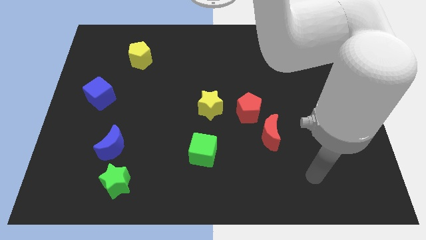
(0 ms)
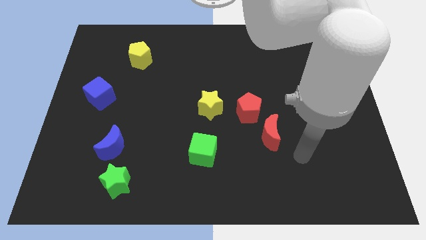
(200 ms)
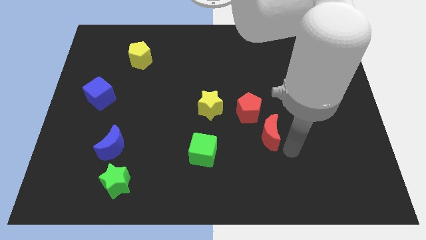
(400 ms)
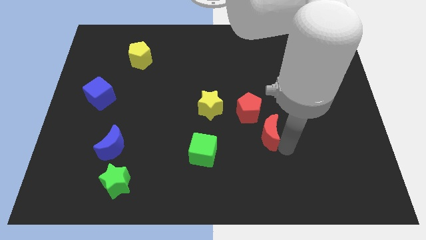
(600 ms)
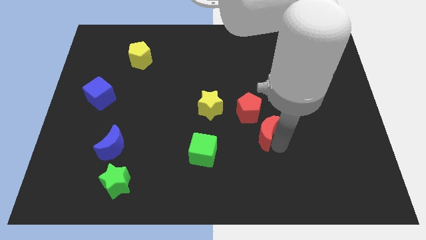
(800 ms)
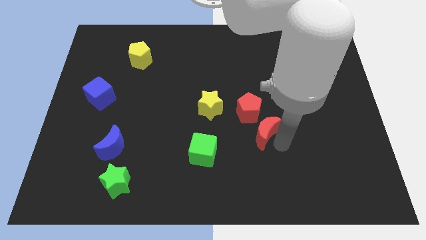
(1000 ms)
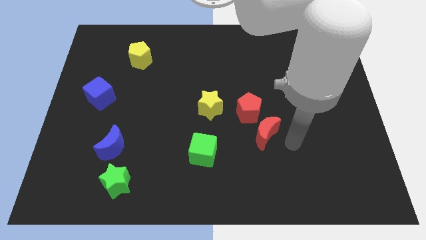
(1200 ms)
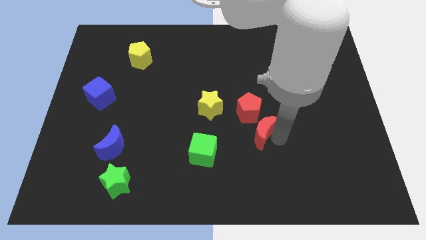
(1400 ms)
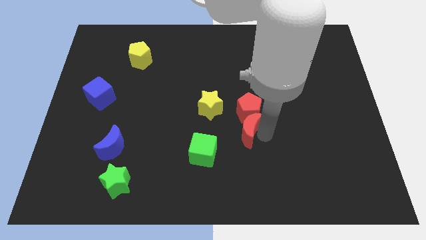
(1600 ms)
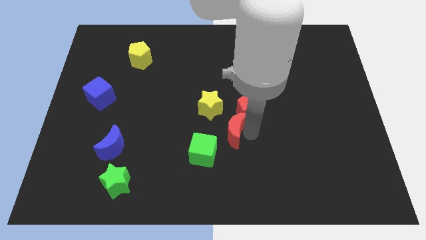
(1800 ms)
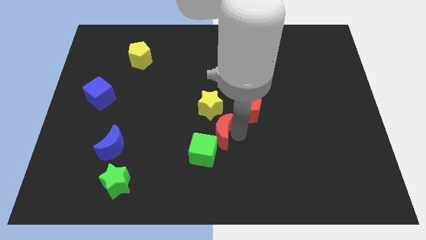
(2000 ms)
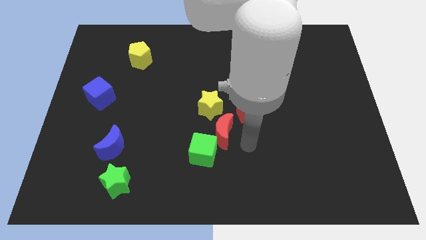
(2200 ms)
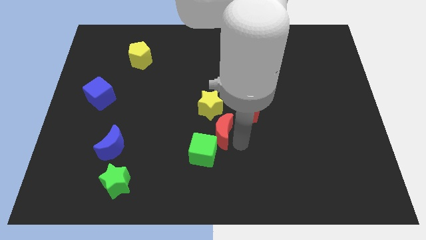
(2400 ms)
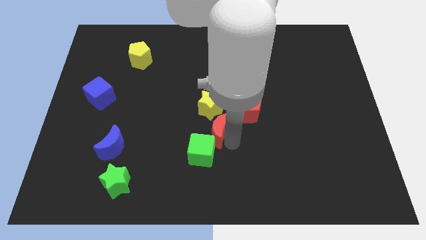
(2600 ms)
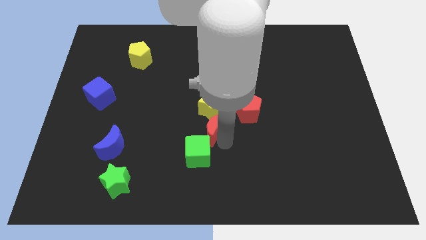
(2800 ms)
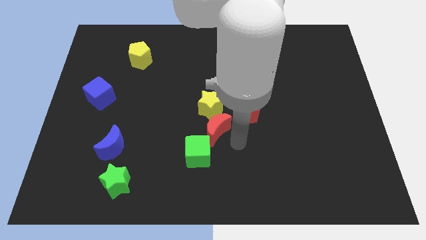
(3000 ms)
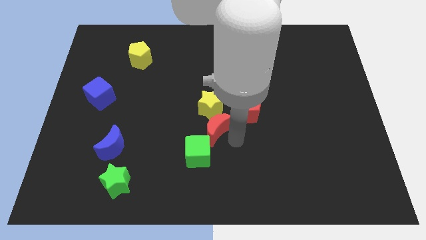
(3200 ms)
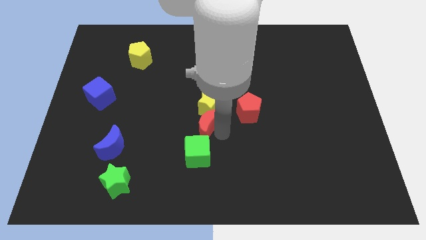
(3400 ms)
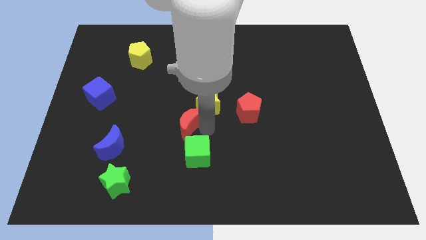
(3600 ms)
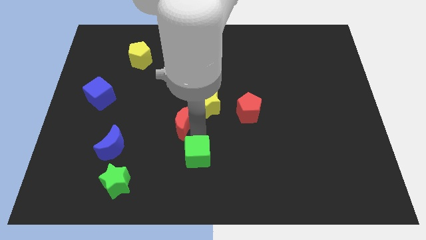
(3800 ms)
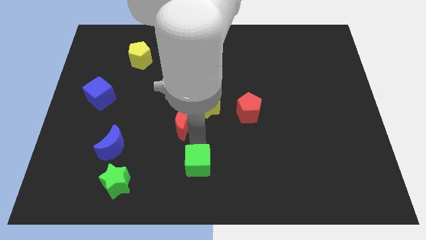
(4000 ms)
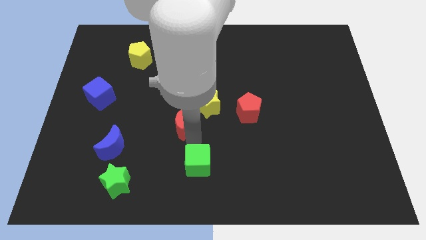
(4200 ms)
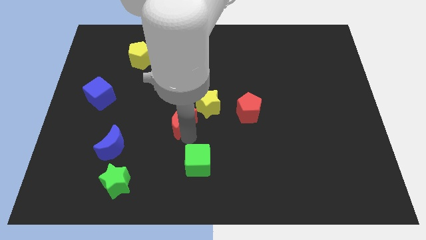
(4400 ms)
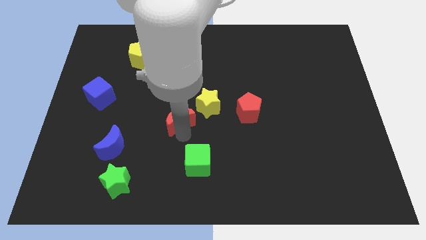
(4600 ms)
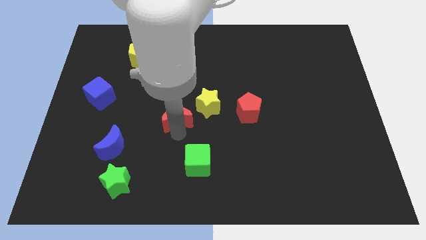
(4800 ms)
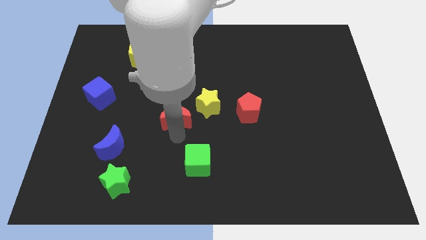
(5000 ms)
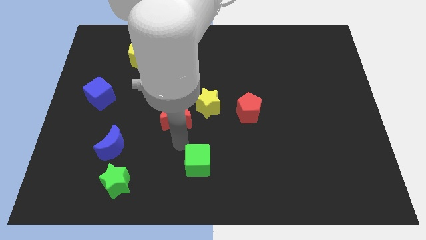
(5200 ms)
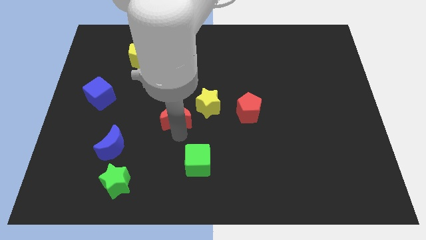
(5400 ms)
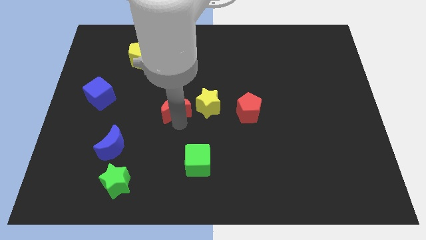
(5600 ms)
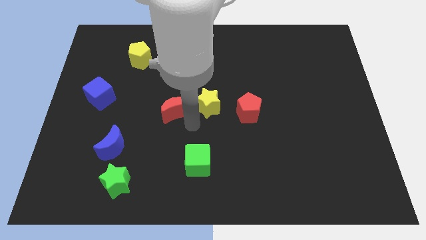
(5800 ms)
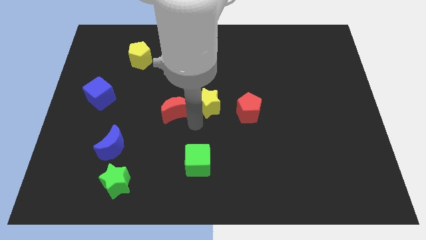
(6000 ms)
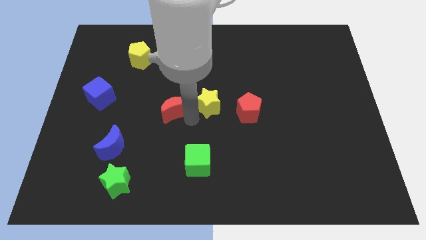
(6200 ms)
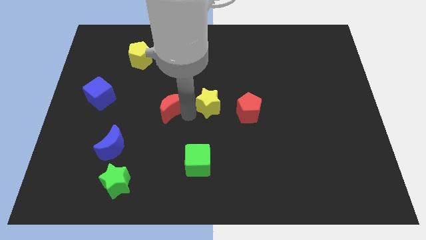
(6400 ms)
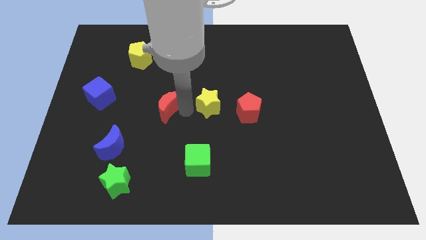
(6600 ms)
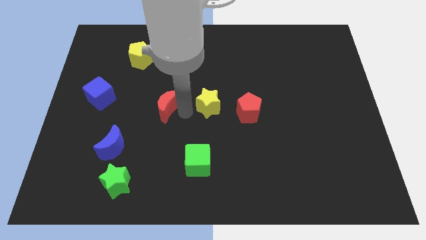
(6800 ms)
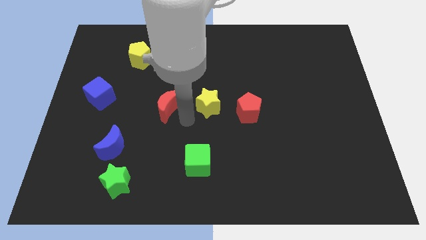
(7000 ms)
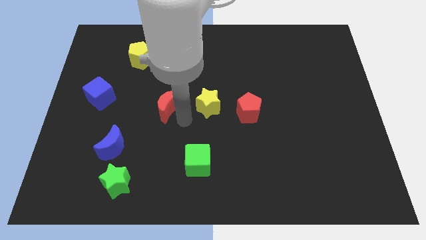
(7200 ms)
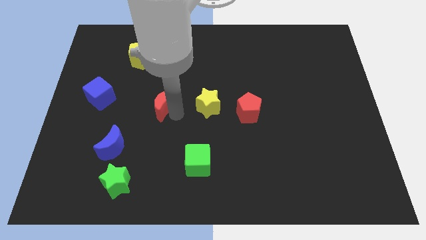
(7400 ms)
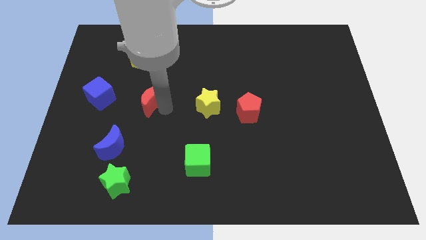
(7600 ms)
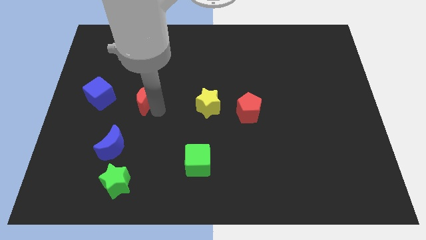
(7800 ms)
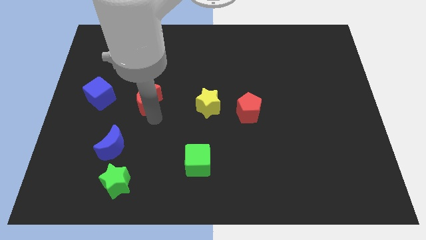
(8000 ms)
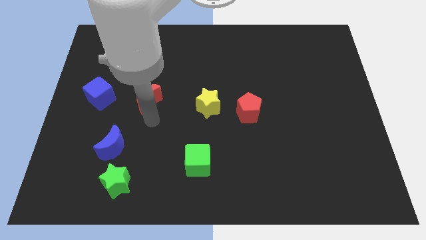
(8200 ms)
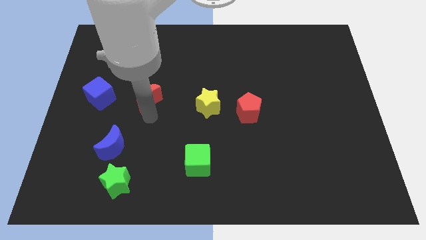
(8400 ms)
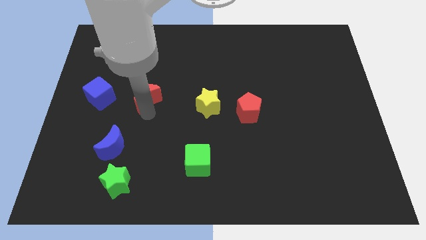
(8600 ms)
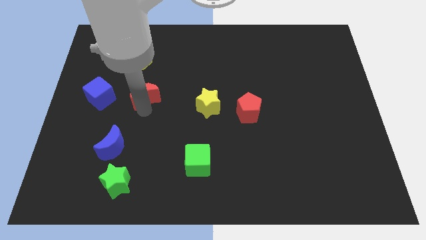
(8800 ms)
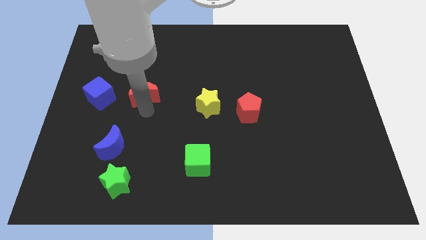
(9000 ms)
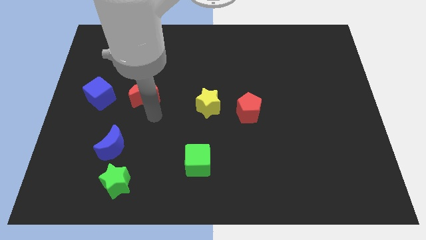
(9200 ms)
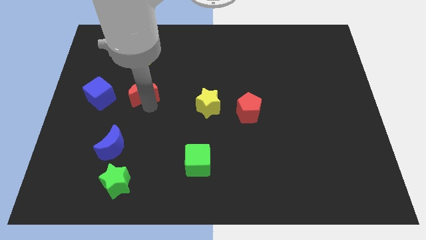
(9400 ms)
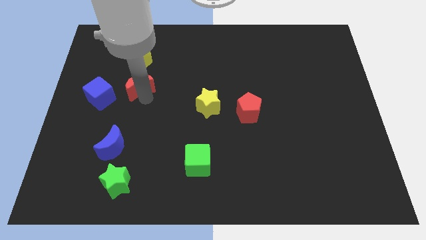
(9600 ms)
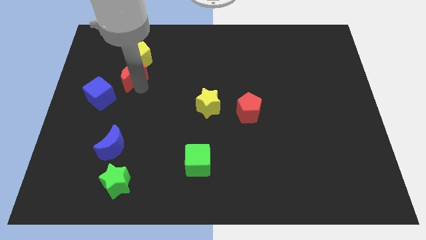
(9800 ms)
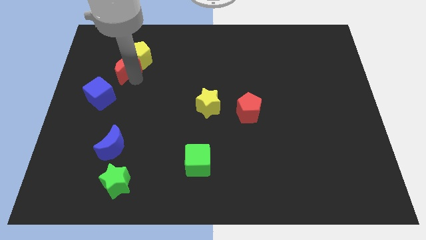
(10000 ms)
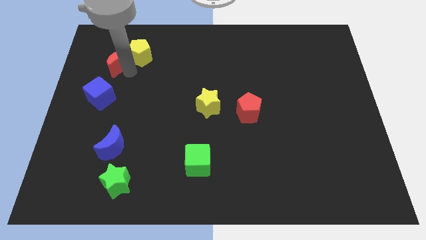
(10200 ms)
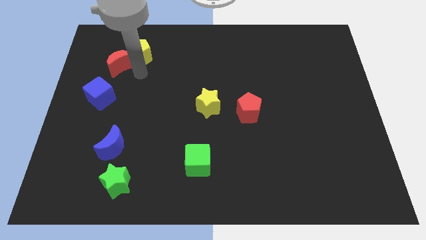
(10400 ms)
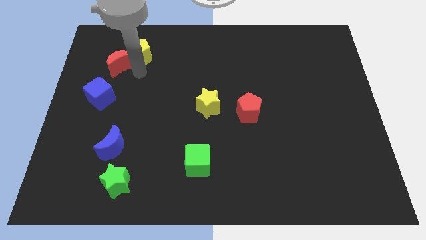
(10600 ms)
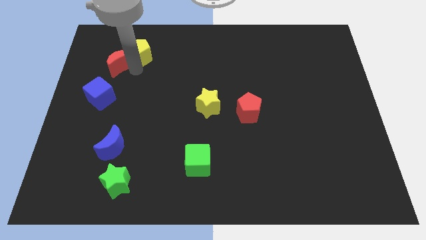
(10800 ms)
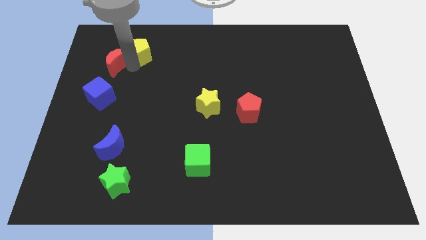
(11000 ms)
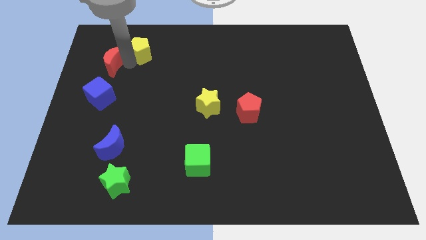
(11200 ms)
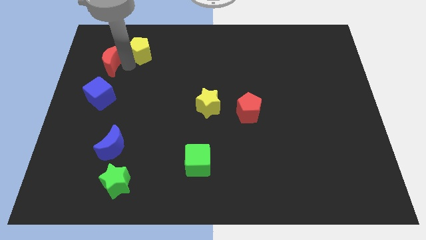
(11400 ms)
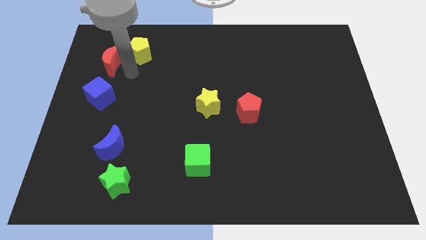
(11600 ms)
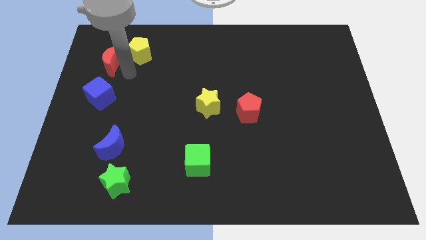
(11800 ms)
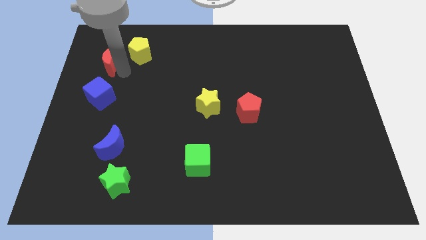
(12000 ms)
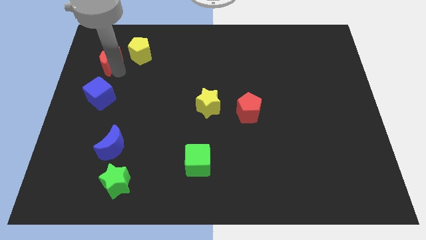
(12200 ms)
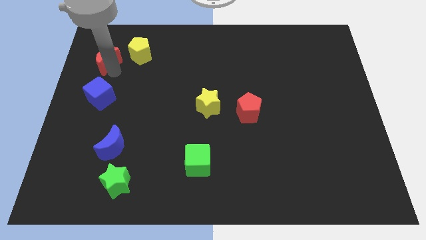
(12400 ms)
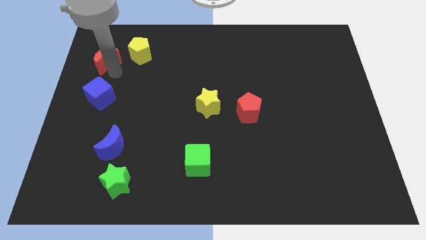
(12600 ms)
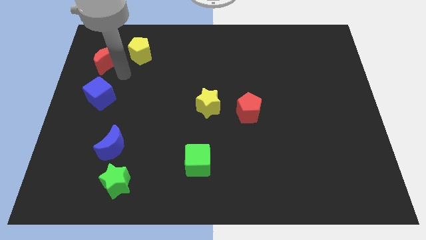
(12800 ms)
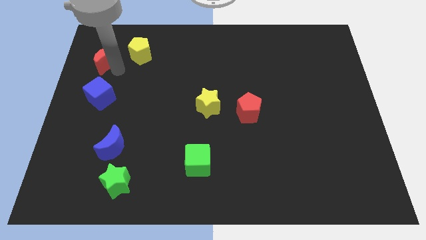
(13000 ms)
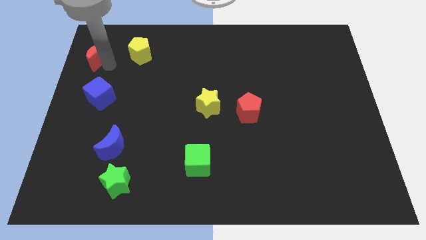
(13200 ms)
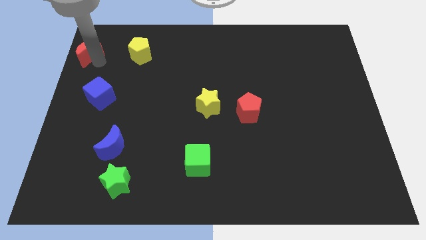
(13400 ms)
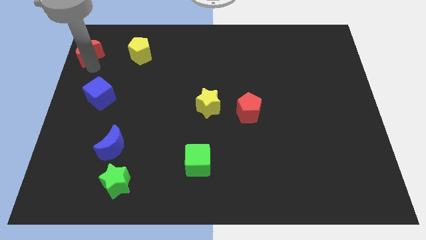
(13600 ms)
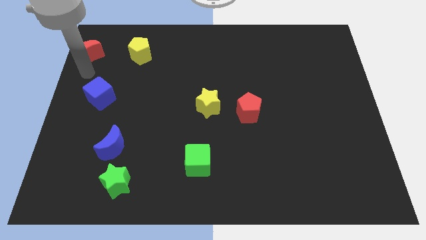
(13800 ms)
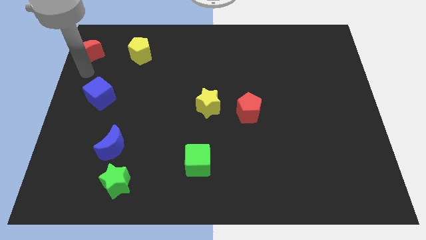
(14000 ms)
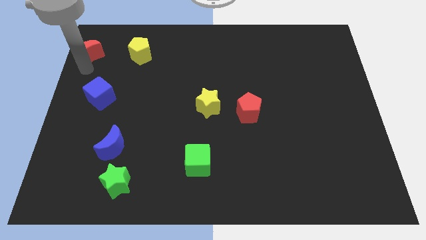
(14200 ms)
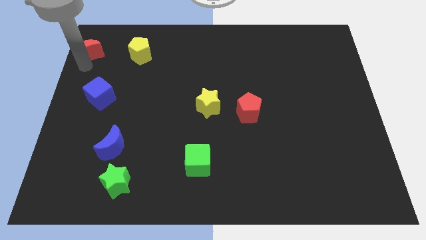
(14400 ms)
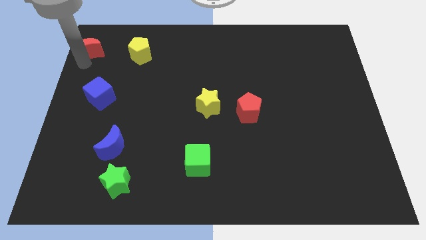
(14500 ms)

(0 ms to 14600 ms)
slide the red moon to the top left of the board
